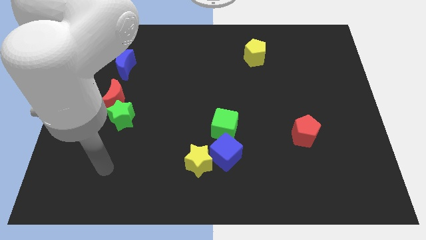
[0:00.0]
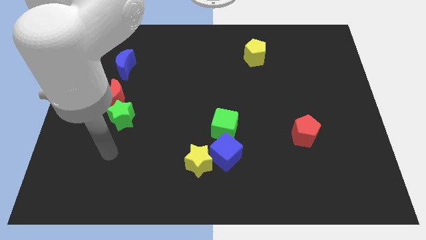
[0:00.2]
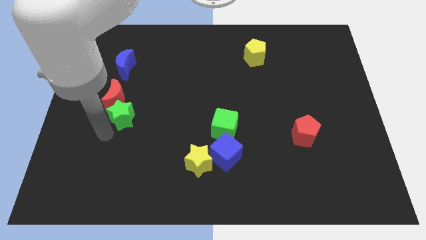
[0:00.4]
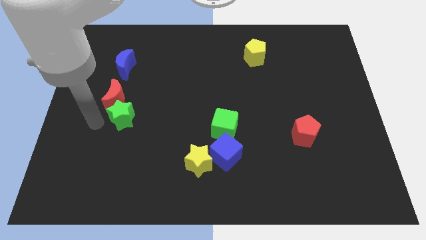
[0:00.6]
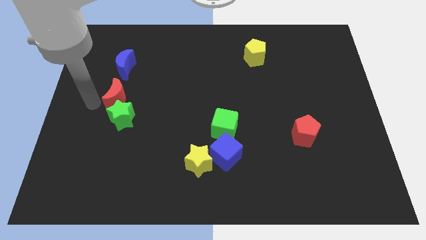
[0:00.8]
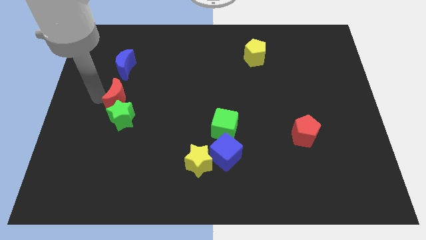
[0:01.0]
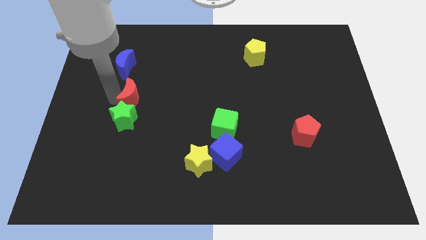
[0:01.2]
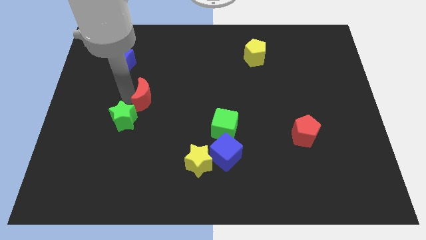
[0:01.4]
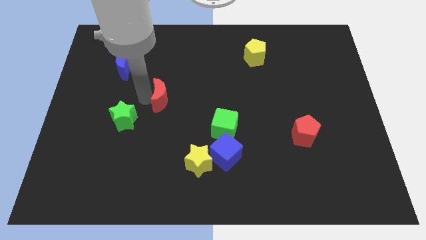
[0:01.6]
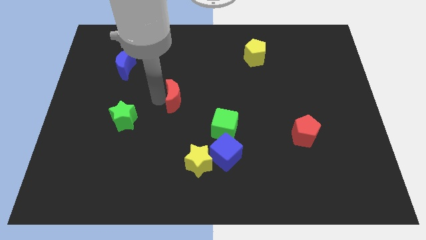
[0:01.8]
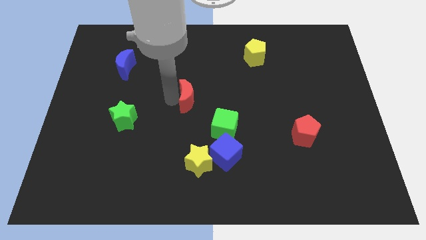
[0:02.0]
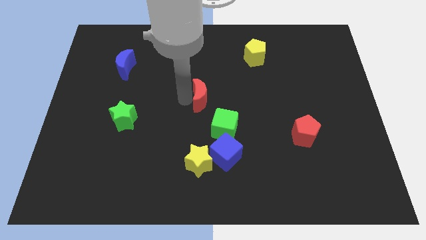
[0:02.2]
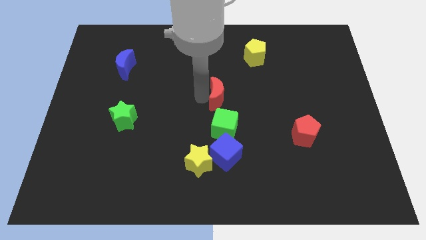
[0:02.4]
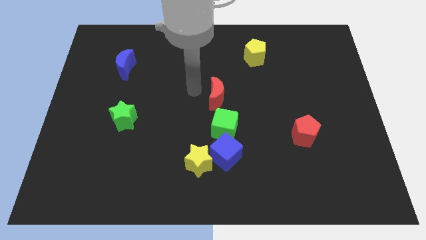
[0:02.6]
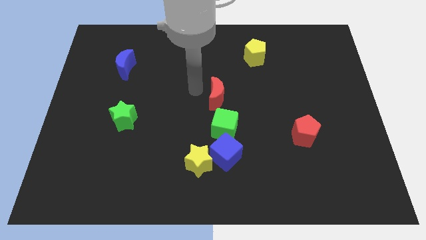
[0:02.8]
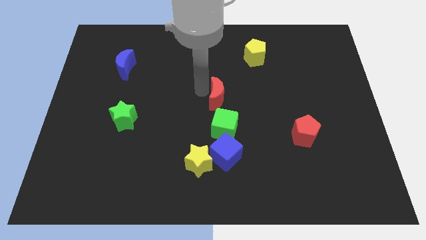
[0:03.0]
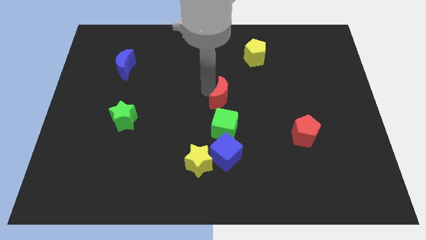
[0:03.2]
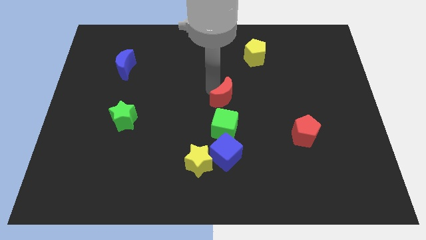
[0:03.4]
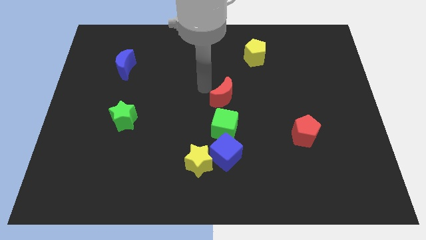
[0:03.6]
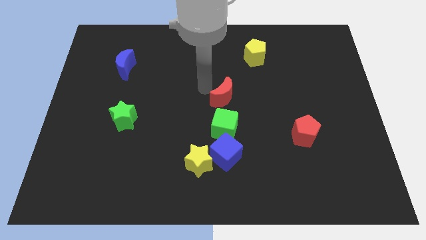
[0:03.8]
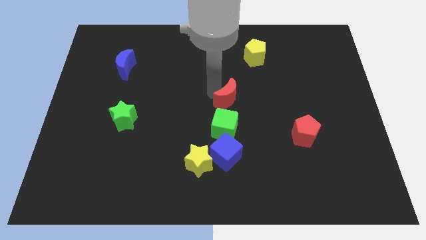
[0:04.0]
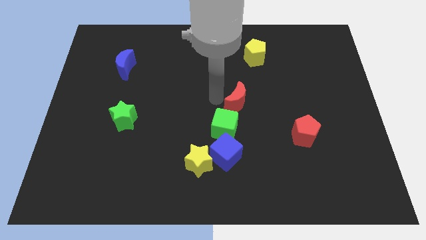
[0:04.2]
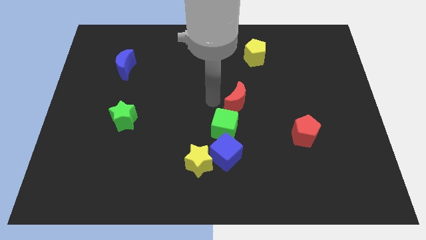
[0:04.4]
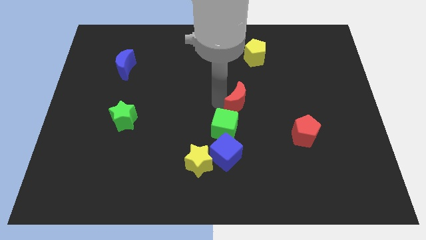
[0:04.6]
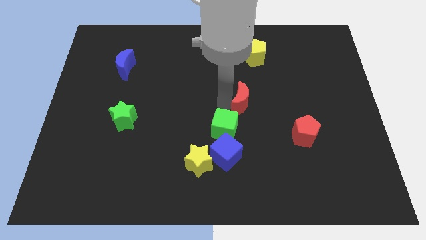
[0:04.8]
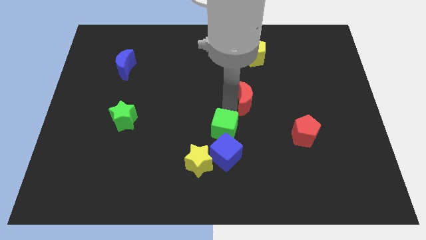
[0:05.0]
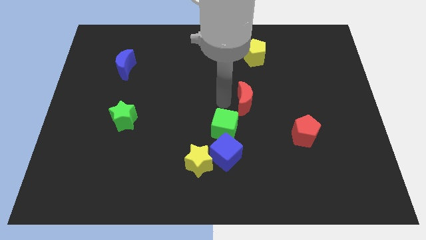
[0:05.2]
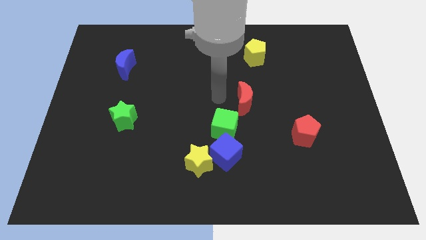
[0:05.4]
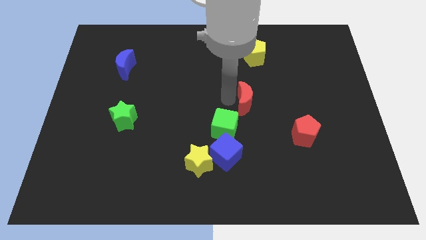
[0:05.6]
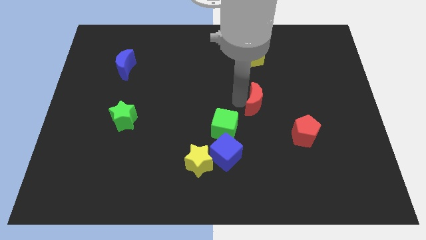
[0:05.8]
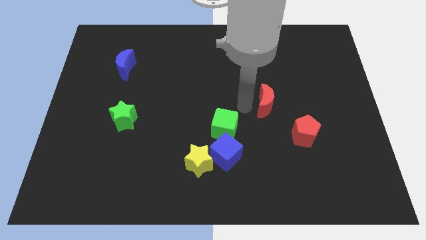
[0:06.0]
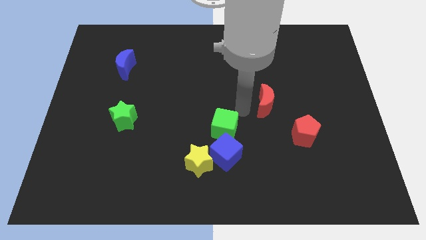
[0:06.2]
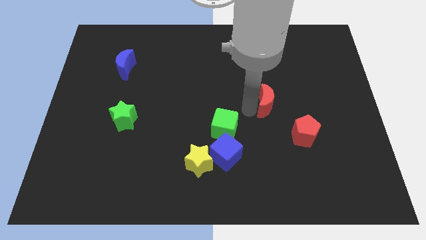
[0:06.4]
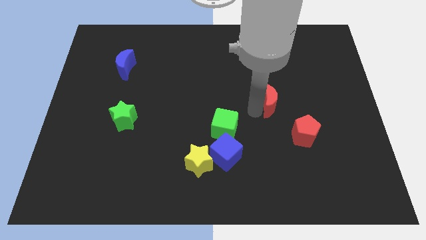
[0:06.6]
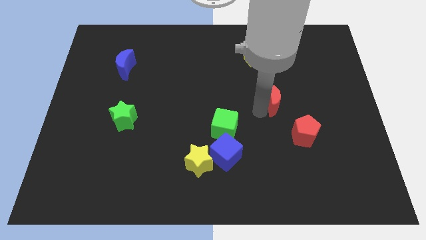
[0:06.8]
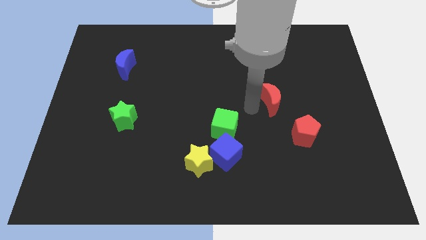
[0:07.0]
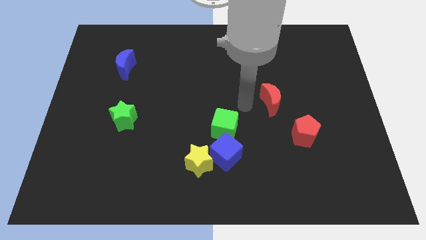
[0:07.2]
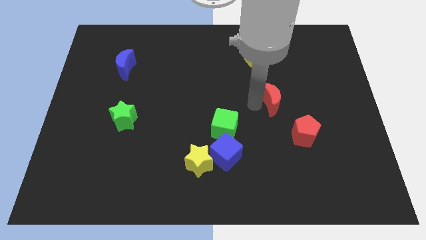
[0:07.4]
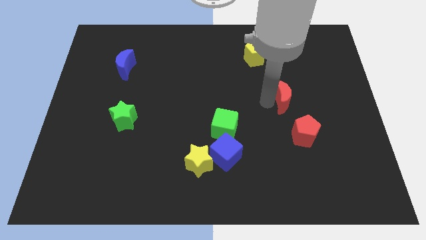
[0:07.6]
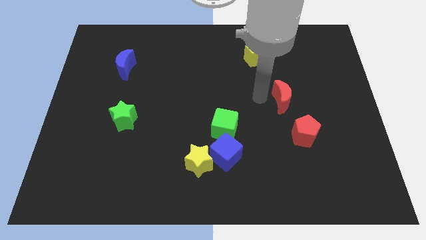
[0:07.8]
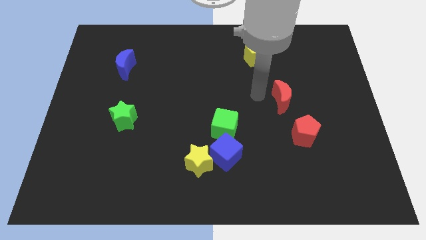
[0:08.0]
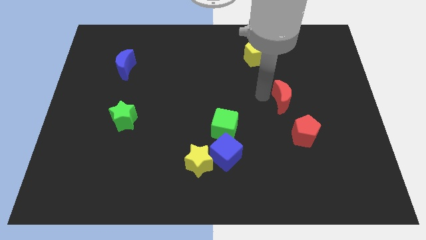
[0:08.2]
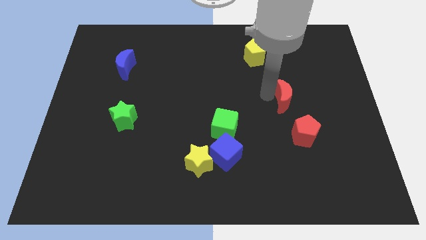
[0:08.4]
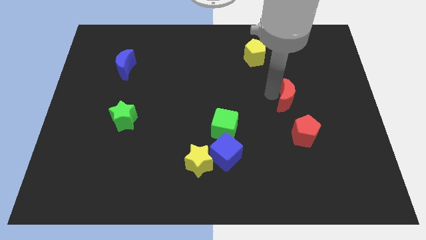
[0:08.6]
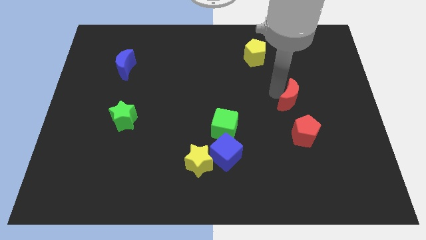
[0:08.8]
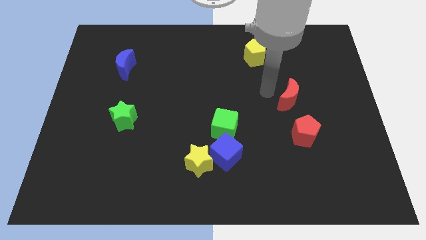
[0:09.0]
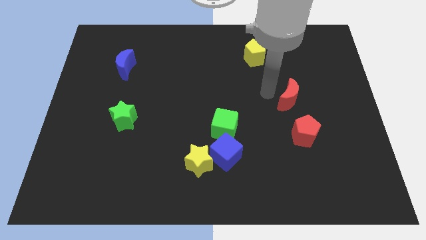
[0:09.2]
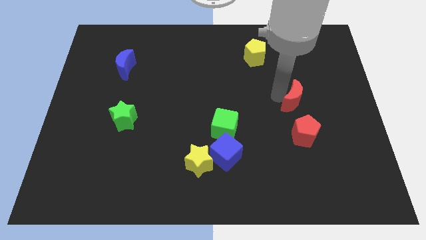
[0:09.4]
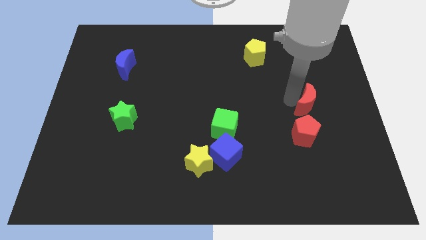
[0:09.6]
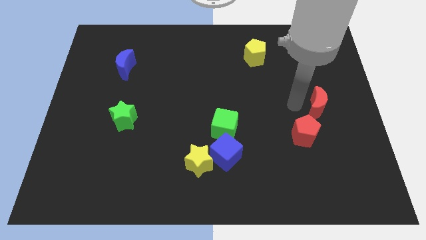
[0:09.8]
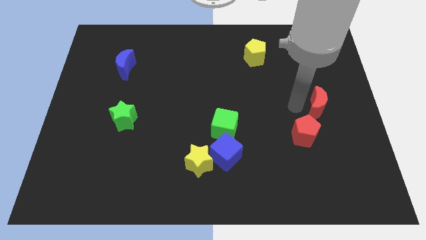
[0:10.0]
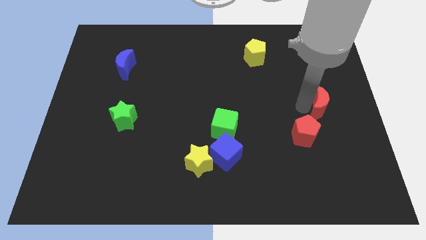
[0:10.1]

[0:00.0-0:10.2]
put the red moon to the center right

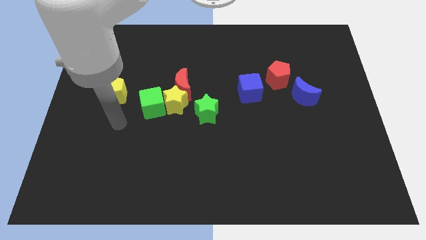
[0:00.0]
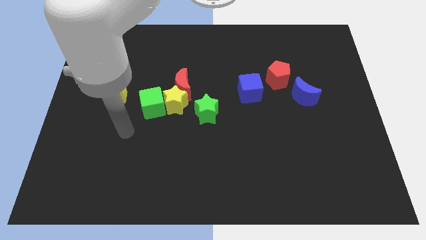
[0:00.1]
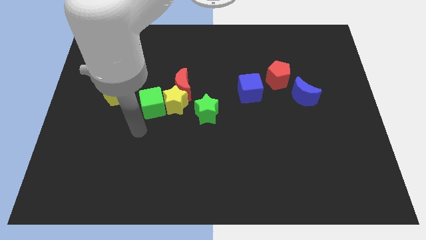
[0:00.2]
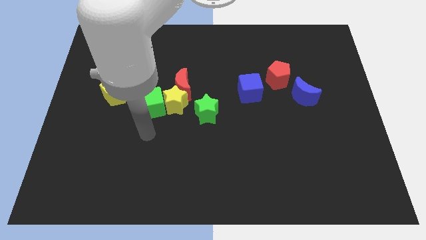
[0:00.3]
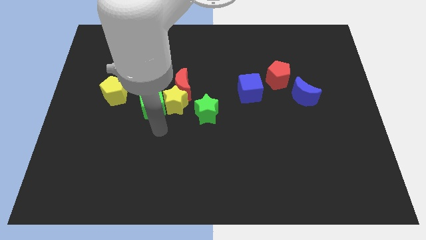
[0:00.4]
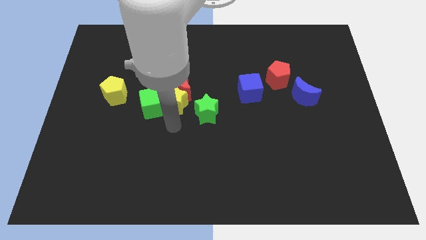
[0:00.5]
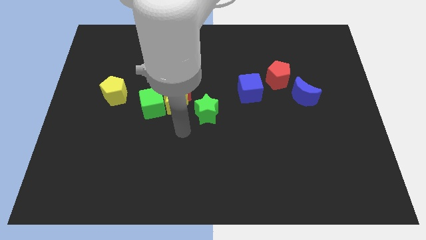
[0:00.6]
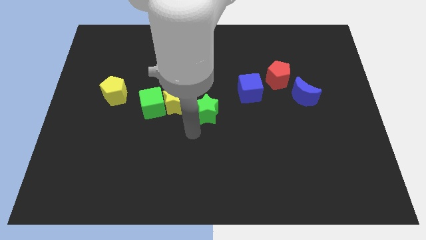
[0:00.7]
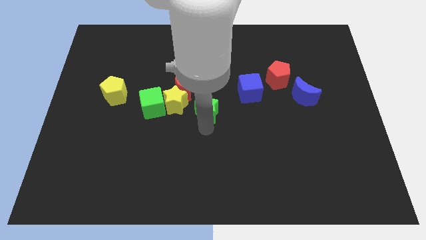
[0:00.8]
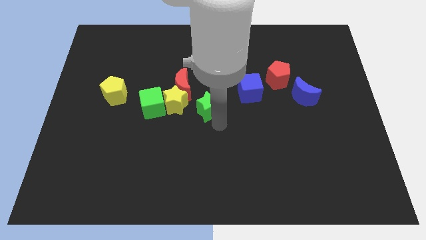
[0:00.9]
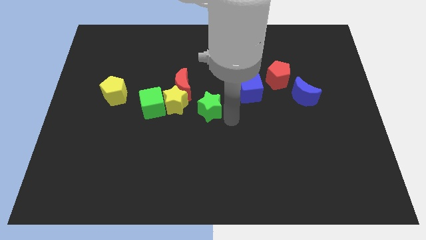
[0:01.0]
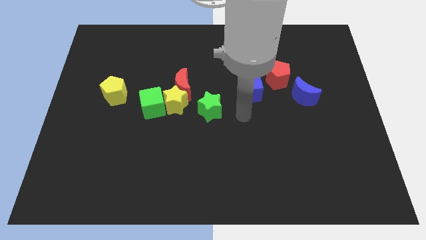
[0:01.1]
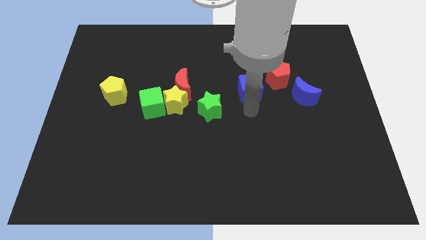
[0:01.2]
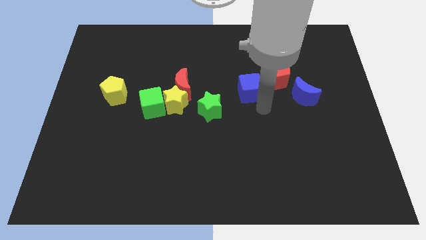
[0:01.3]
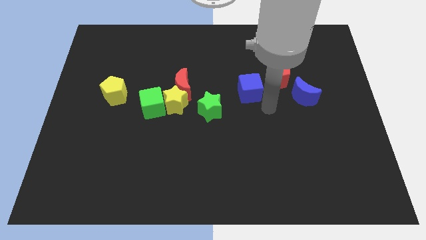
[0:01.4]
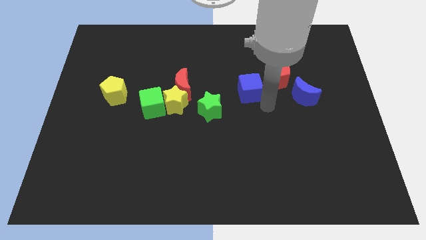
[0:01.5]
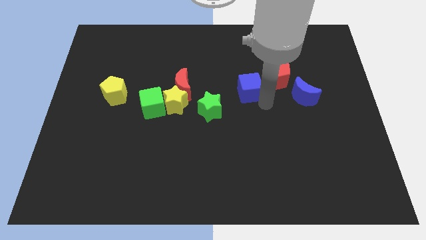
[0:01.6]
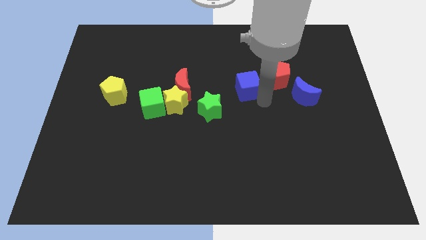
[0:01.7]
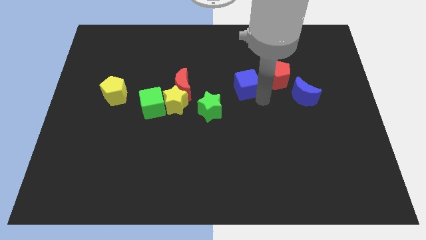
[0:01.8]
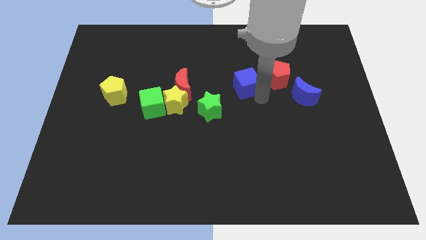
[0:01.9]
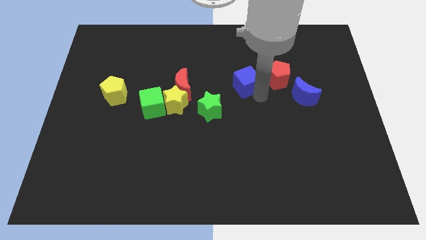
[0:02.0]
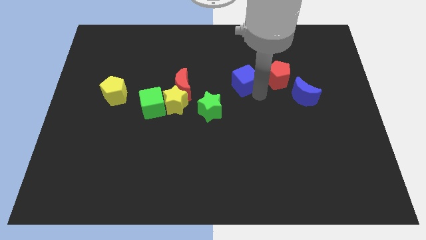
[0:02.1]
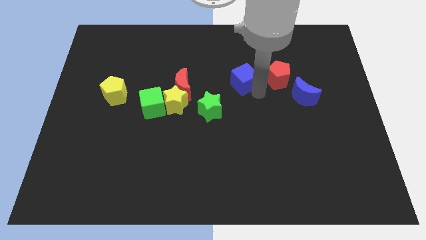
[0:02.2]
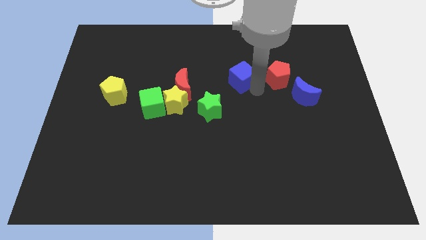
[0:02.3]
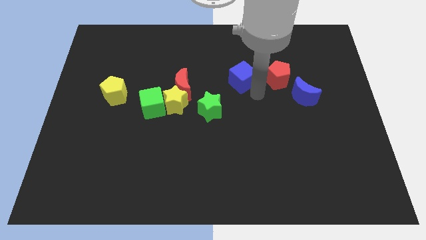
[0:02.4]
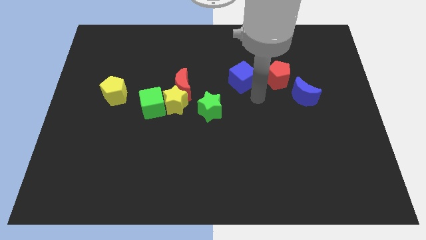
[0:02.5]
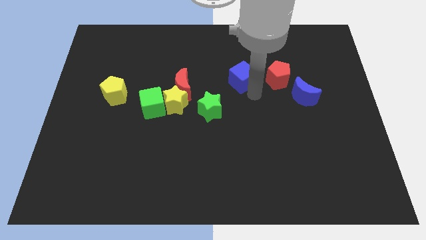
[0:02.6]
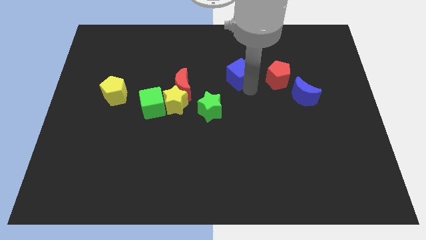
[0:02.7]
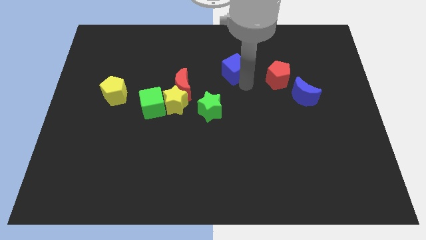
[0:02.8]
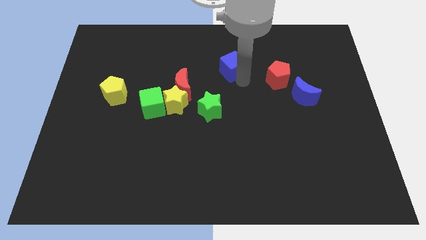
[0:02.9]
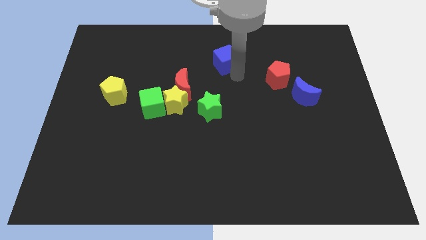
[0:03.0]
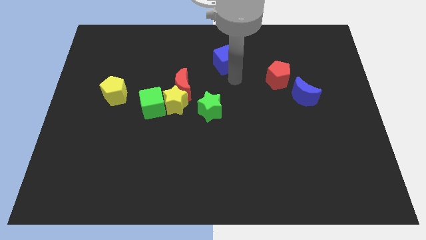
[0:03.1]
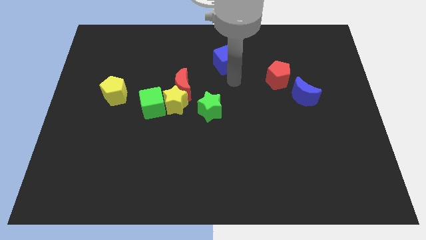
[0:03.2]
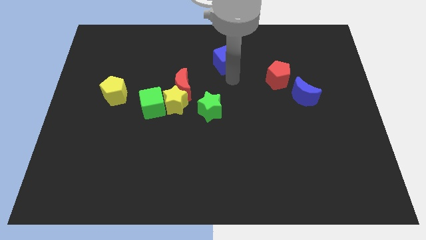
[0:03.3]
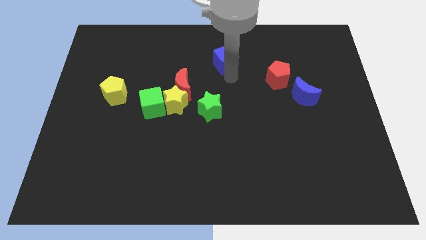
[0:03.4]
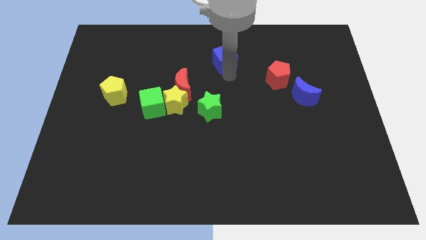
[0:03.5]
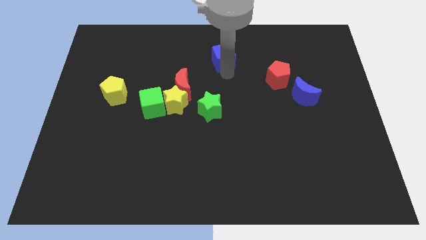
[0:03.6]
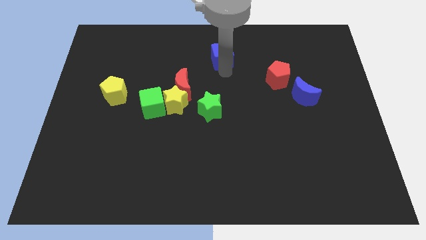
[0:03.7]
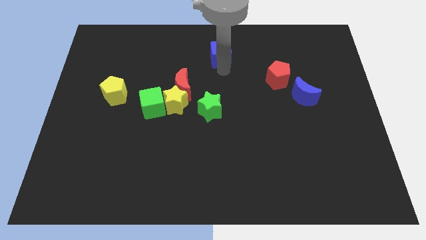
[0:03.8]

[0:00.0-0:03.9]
move the blue cube to the top side
